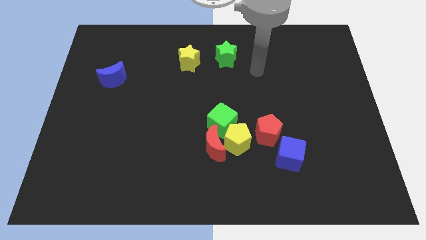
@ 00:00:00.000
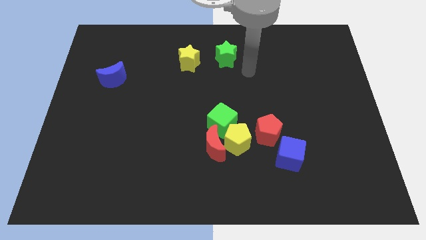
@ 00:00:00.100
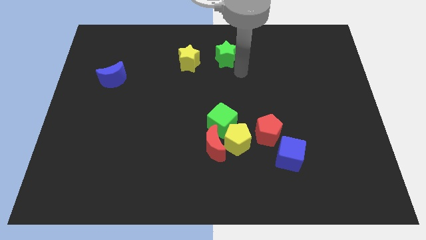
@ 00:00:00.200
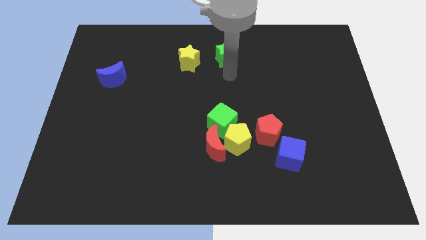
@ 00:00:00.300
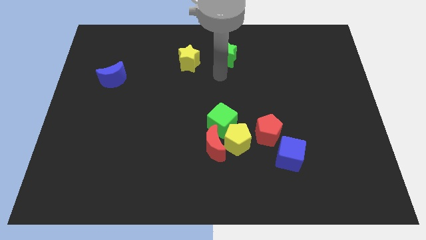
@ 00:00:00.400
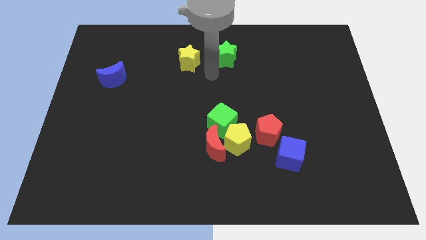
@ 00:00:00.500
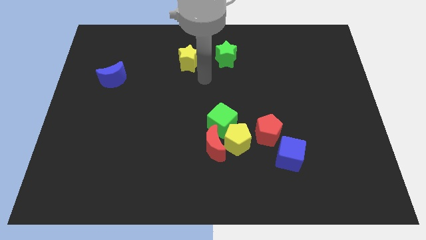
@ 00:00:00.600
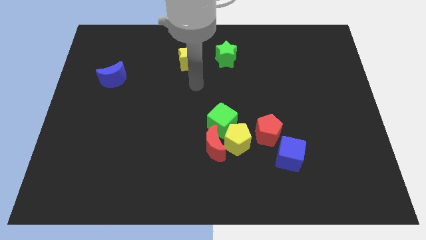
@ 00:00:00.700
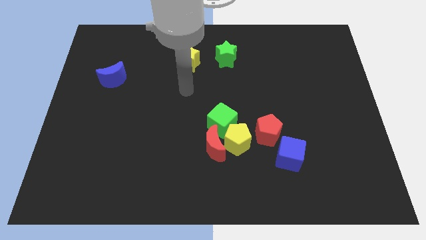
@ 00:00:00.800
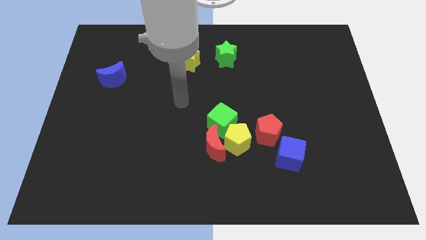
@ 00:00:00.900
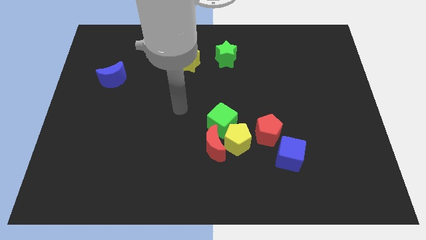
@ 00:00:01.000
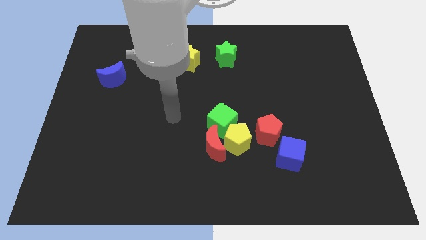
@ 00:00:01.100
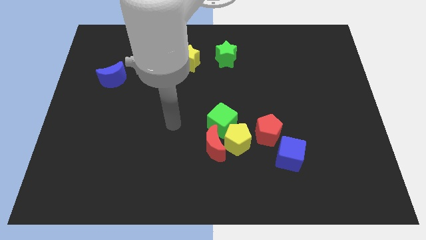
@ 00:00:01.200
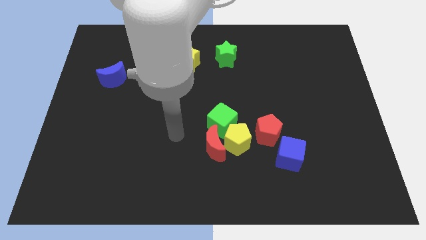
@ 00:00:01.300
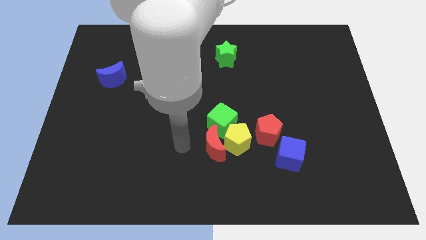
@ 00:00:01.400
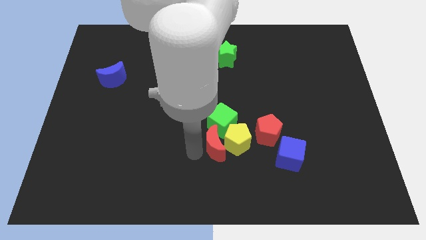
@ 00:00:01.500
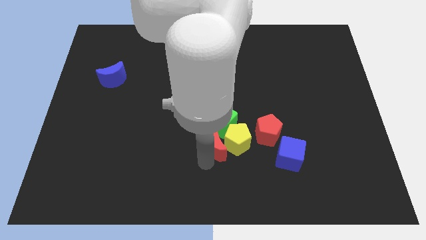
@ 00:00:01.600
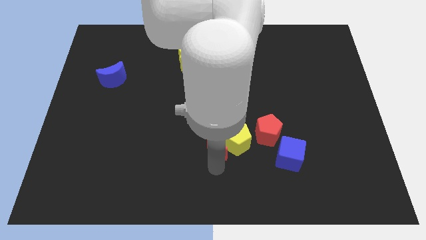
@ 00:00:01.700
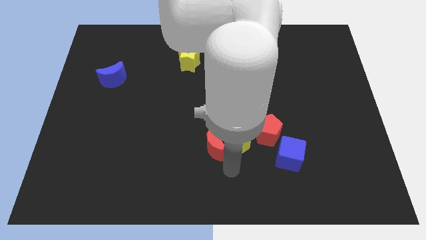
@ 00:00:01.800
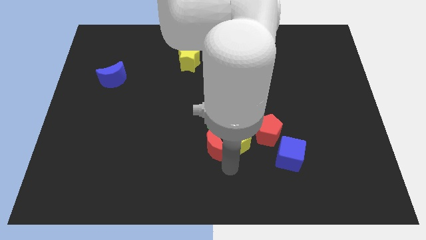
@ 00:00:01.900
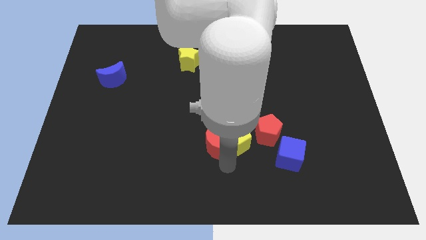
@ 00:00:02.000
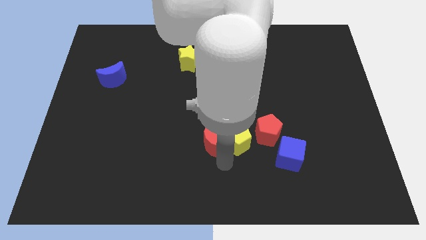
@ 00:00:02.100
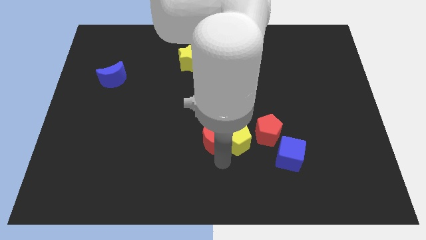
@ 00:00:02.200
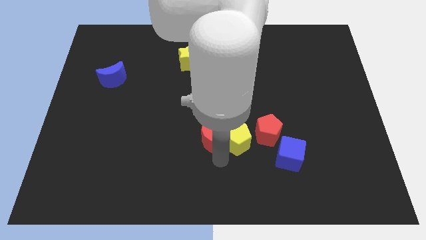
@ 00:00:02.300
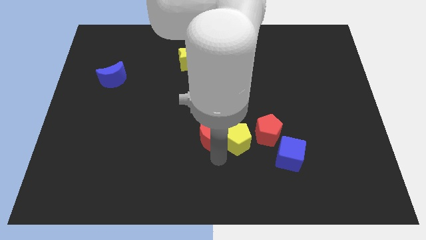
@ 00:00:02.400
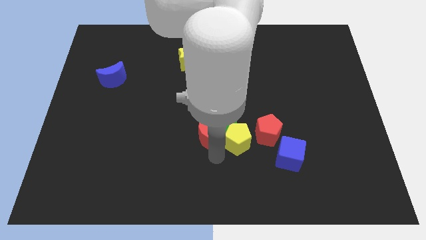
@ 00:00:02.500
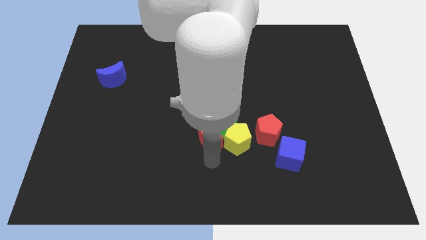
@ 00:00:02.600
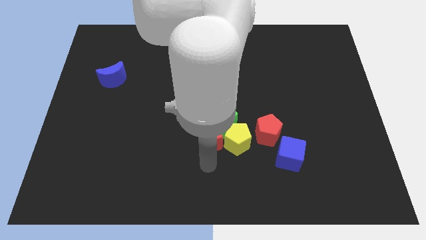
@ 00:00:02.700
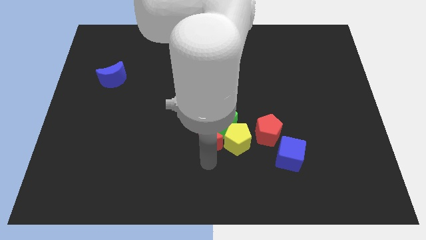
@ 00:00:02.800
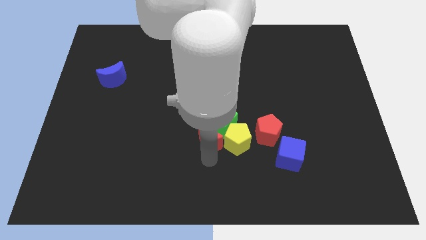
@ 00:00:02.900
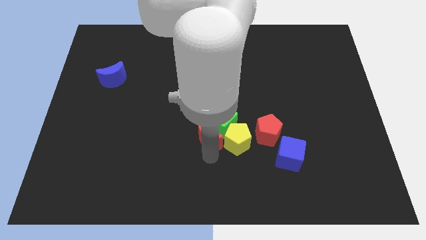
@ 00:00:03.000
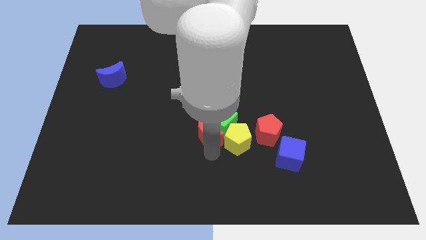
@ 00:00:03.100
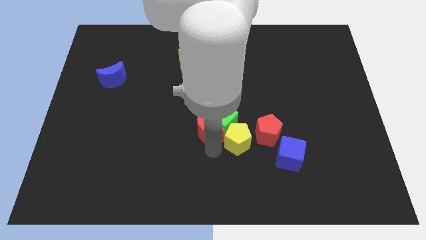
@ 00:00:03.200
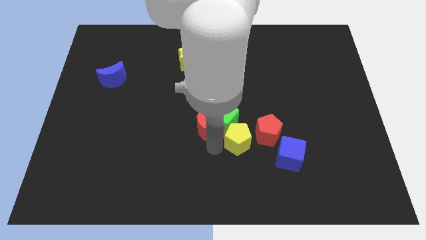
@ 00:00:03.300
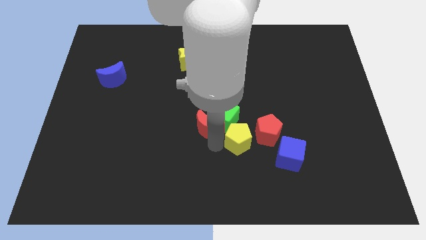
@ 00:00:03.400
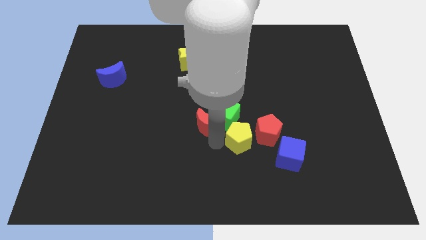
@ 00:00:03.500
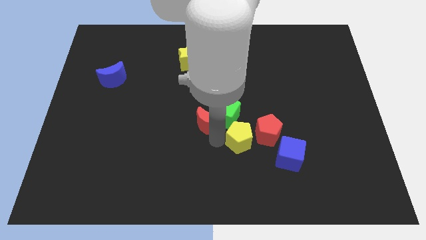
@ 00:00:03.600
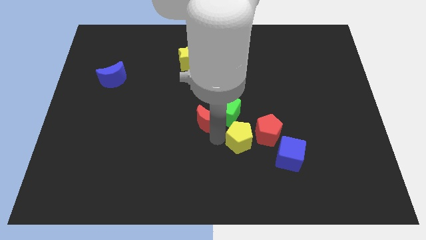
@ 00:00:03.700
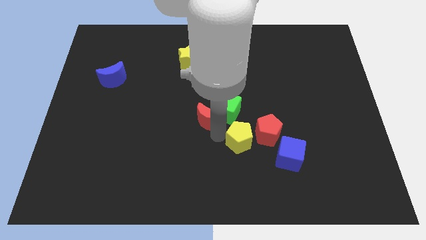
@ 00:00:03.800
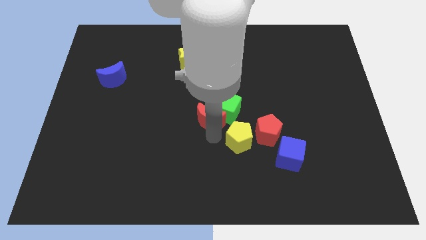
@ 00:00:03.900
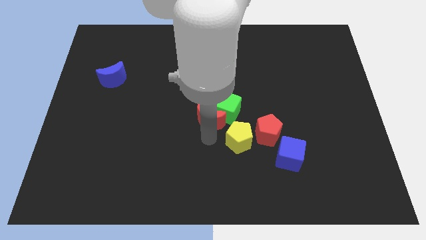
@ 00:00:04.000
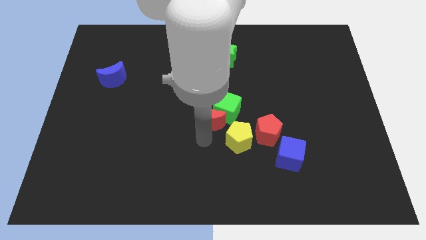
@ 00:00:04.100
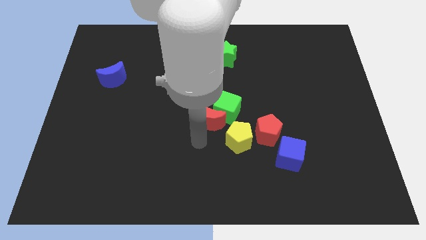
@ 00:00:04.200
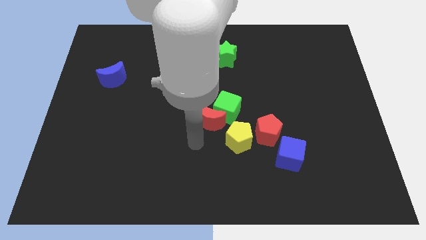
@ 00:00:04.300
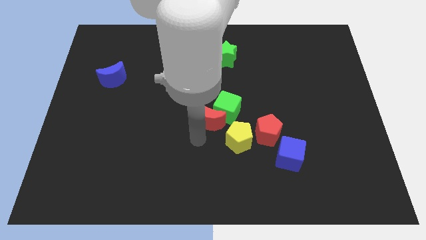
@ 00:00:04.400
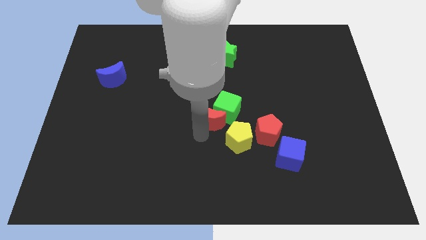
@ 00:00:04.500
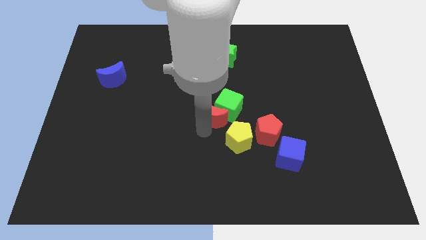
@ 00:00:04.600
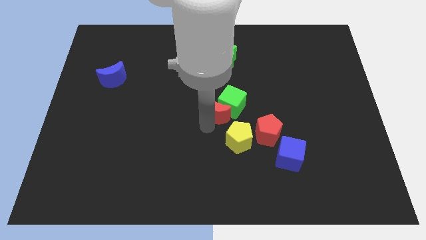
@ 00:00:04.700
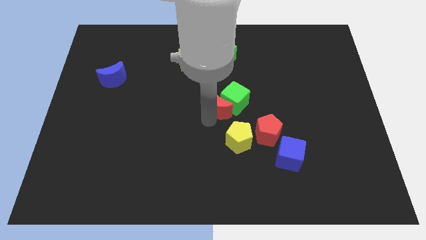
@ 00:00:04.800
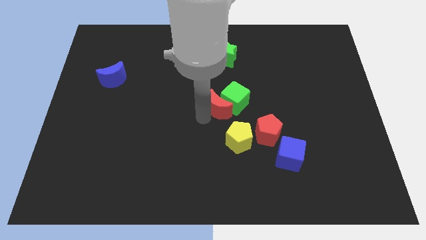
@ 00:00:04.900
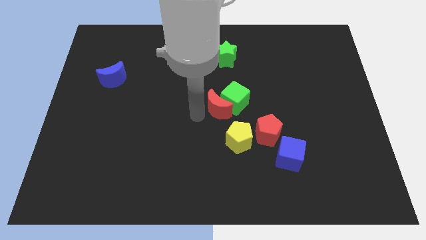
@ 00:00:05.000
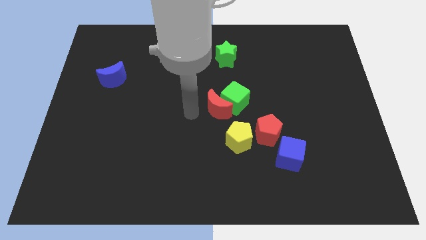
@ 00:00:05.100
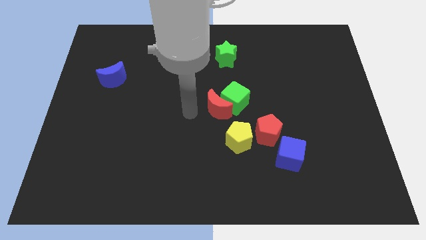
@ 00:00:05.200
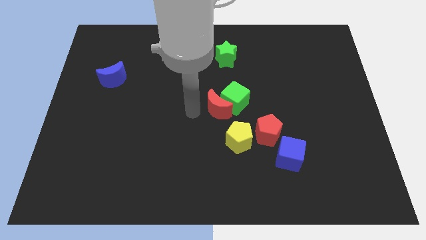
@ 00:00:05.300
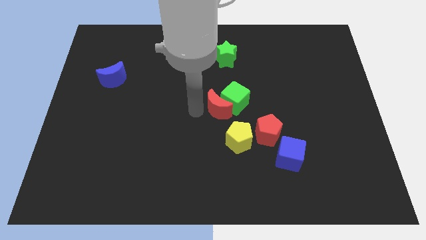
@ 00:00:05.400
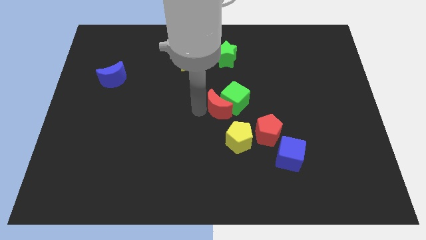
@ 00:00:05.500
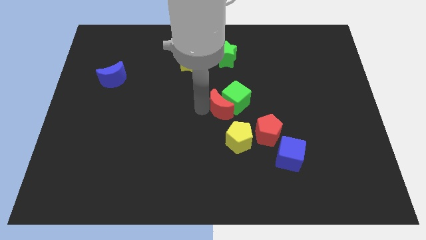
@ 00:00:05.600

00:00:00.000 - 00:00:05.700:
move the red moon up and to the right diagonally a bit

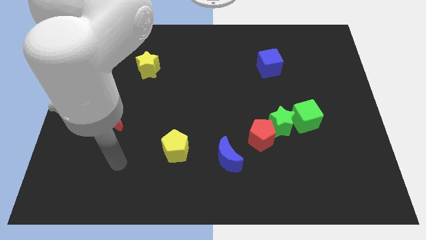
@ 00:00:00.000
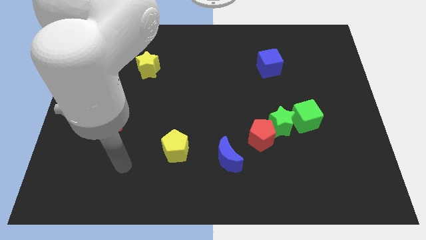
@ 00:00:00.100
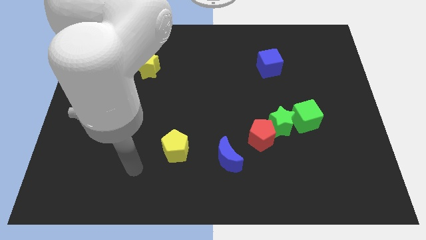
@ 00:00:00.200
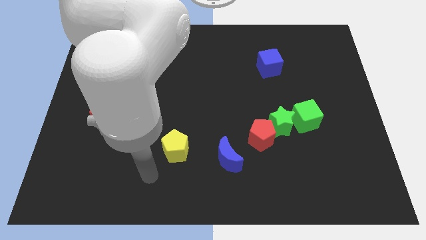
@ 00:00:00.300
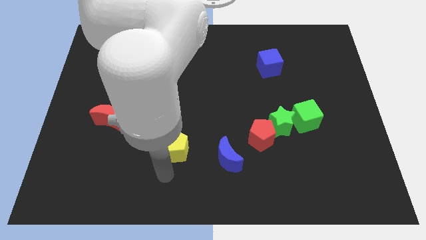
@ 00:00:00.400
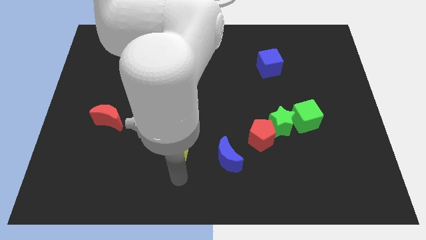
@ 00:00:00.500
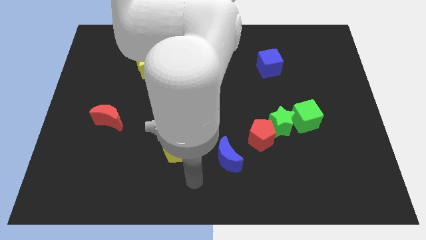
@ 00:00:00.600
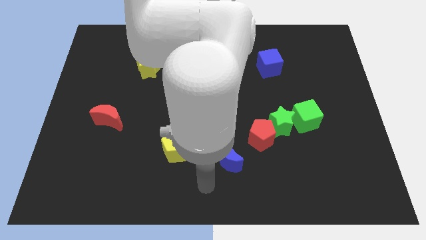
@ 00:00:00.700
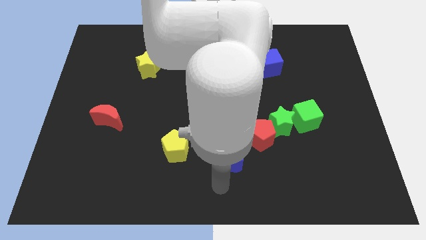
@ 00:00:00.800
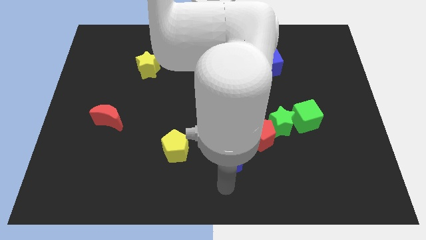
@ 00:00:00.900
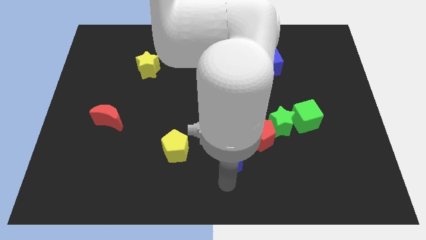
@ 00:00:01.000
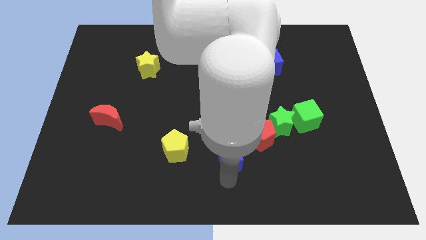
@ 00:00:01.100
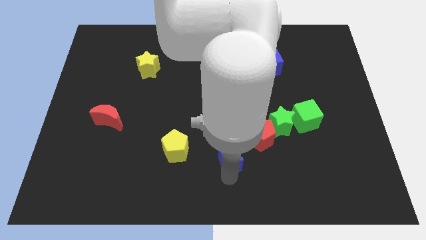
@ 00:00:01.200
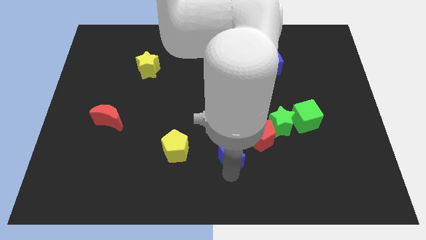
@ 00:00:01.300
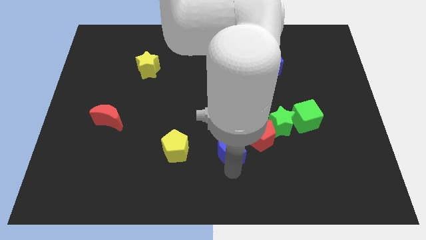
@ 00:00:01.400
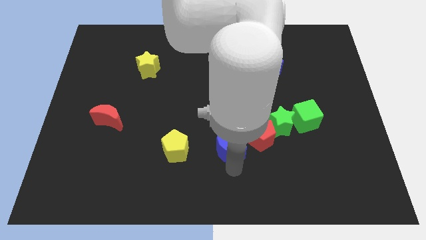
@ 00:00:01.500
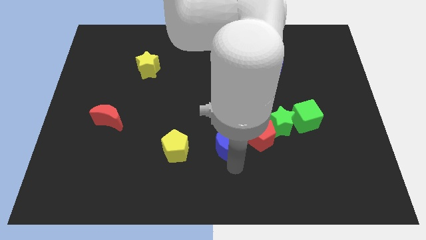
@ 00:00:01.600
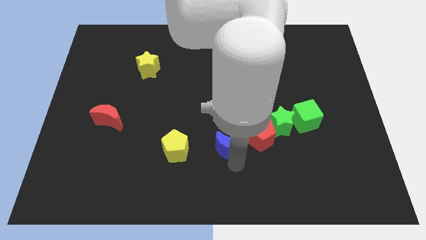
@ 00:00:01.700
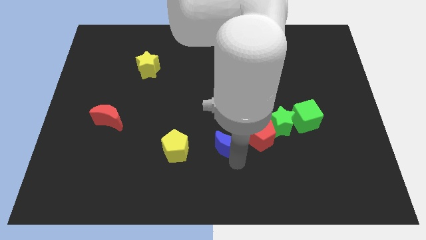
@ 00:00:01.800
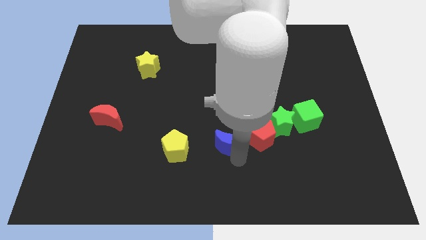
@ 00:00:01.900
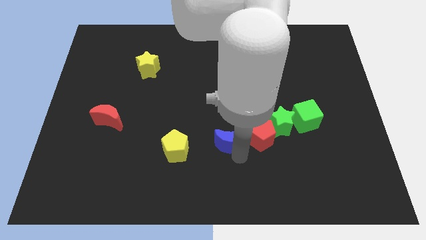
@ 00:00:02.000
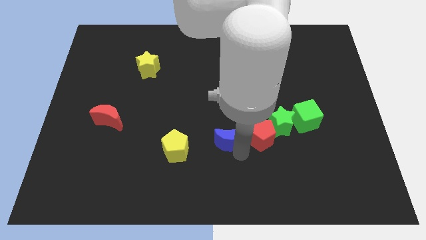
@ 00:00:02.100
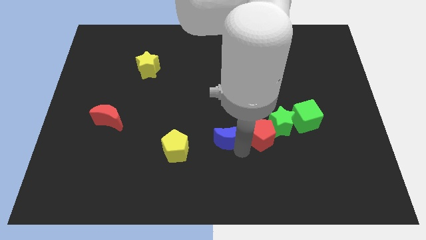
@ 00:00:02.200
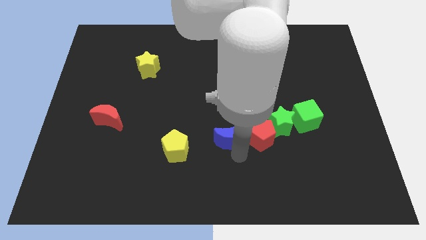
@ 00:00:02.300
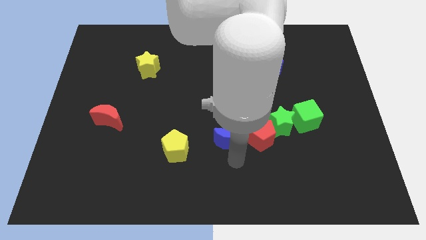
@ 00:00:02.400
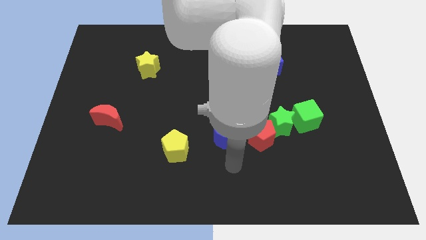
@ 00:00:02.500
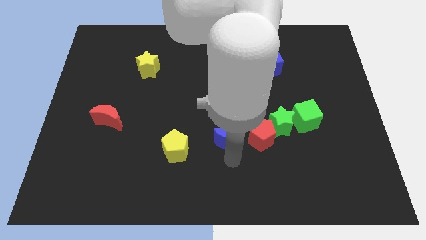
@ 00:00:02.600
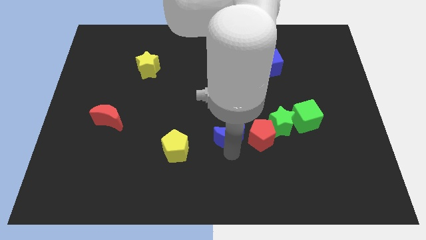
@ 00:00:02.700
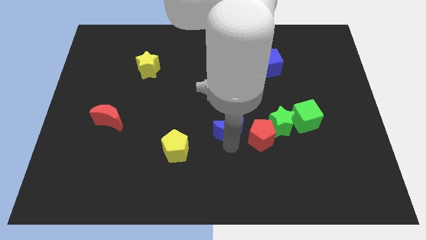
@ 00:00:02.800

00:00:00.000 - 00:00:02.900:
slightly move the blue moon up
